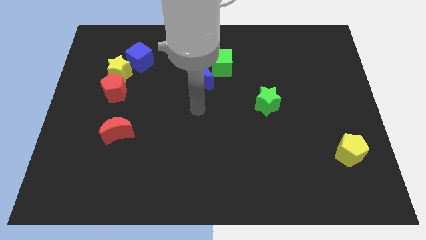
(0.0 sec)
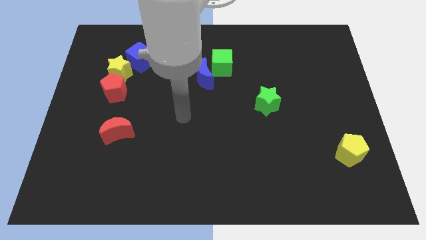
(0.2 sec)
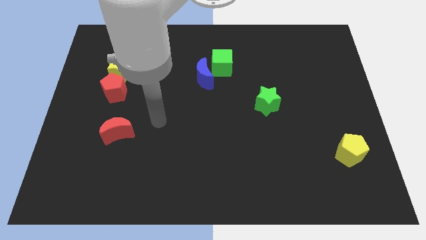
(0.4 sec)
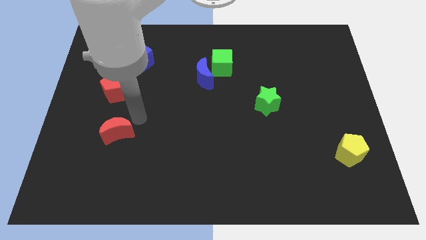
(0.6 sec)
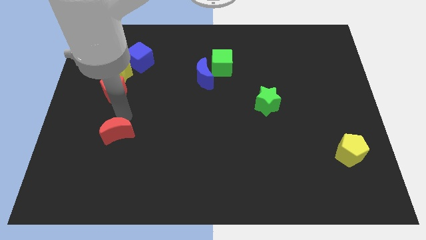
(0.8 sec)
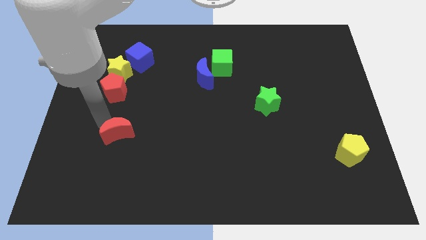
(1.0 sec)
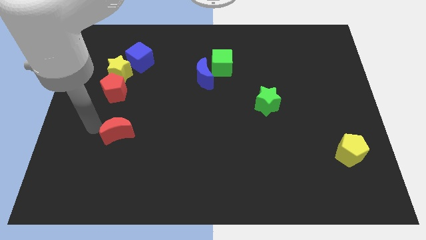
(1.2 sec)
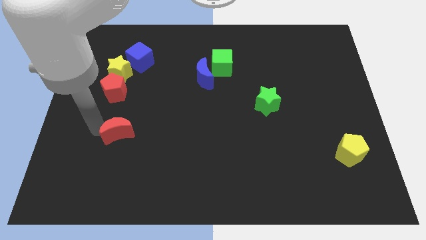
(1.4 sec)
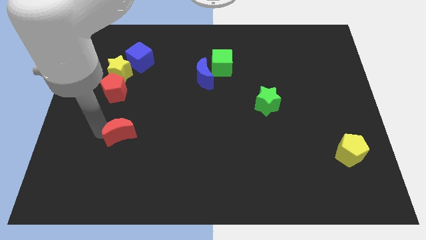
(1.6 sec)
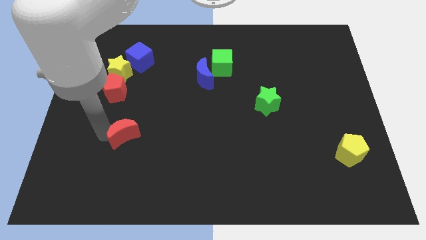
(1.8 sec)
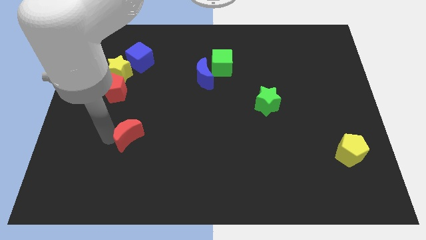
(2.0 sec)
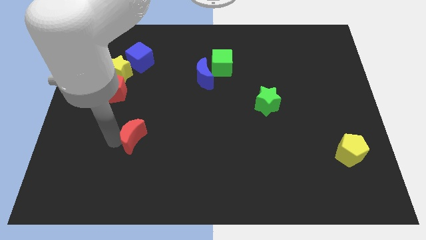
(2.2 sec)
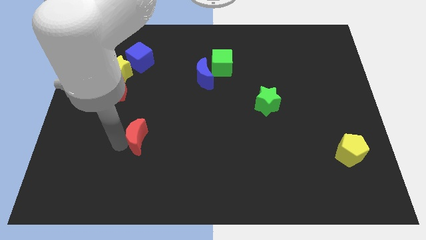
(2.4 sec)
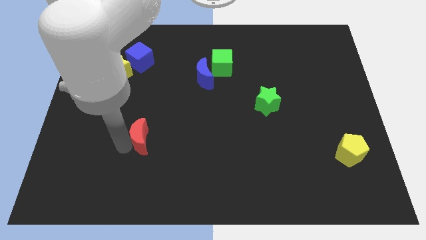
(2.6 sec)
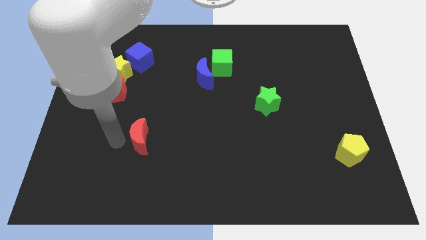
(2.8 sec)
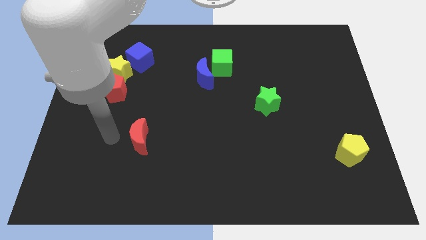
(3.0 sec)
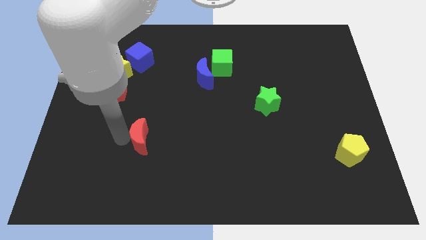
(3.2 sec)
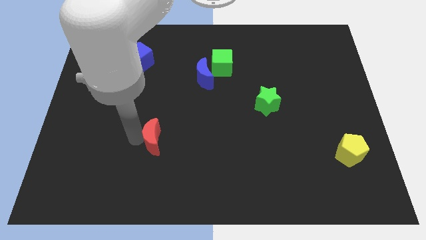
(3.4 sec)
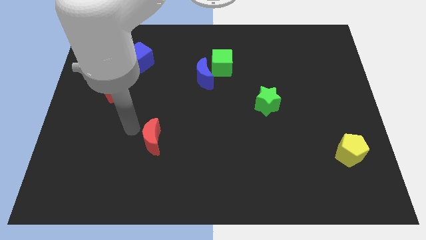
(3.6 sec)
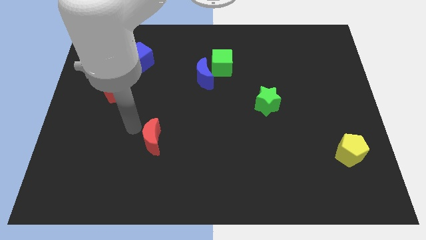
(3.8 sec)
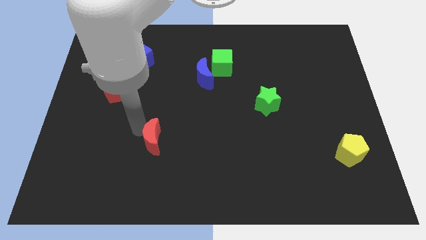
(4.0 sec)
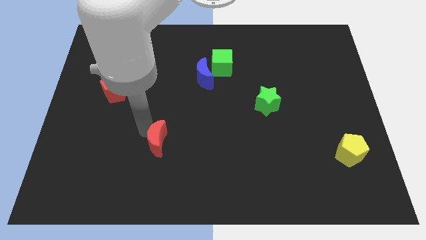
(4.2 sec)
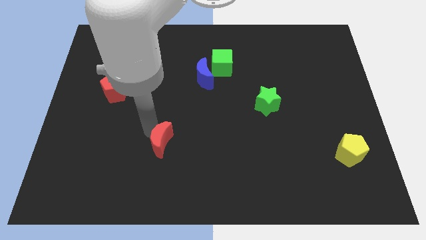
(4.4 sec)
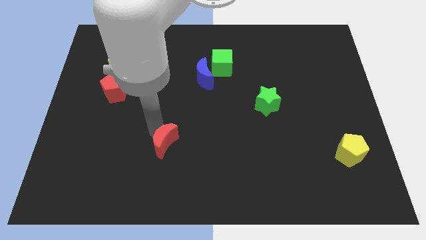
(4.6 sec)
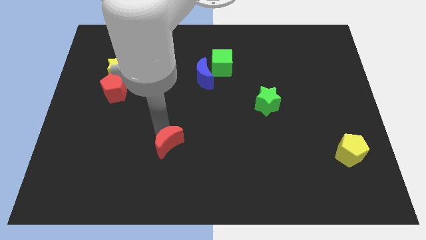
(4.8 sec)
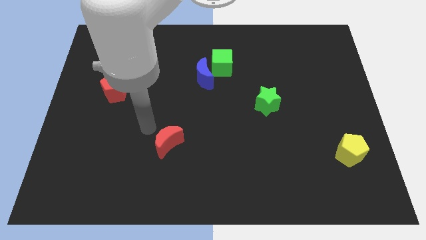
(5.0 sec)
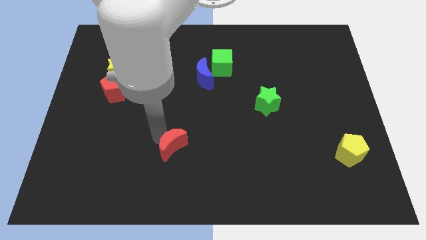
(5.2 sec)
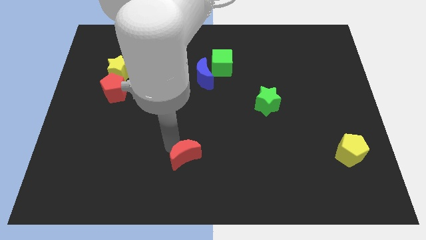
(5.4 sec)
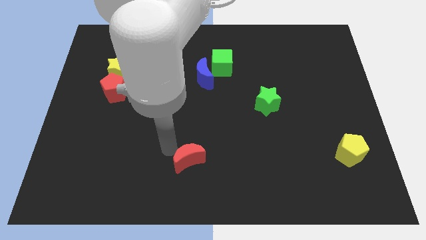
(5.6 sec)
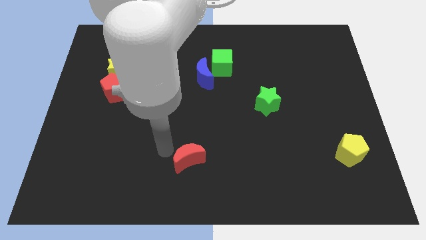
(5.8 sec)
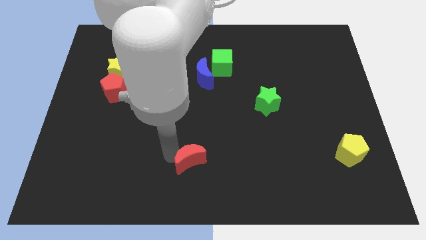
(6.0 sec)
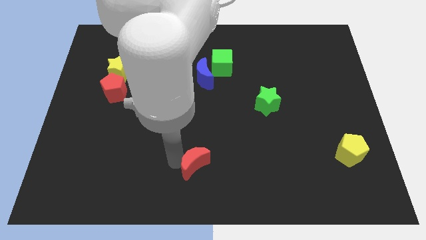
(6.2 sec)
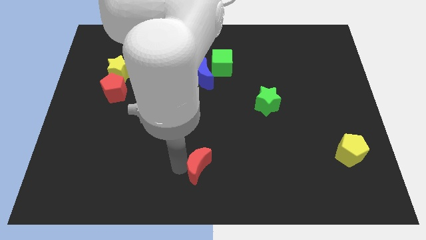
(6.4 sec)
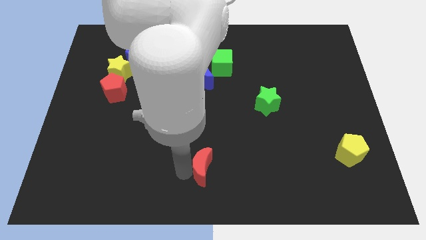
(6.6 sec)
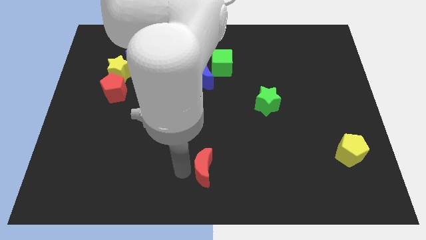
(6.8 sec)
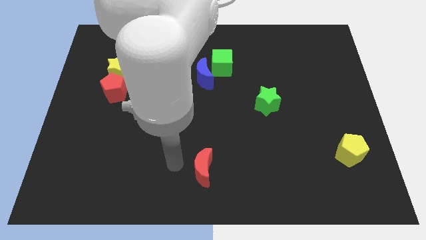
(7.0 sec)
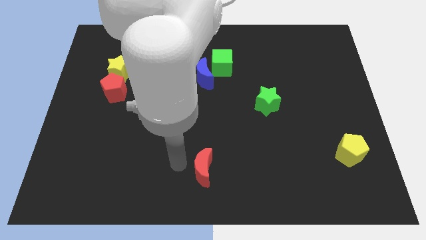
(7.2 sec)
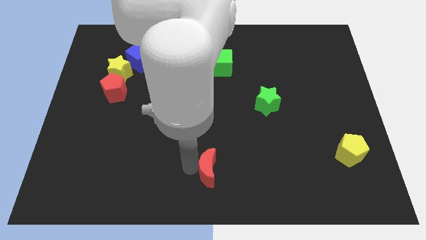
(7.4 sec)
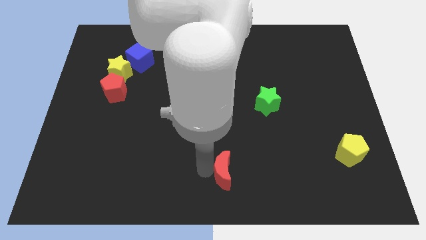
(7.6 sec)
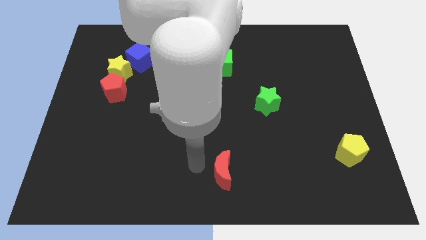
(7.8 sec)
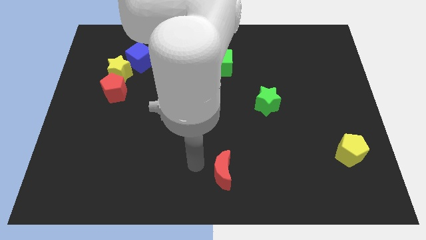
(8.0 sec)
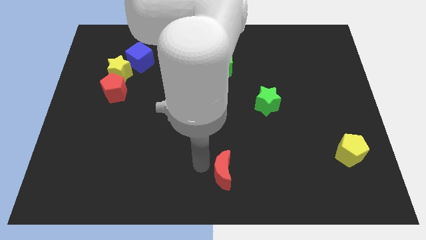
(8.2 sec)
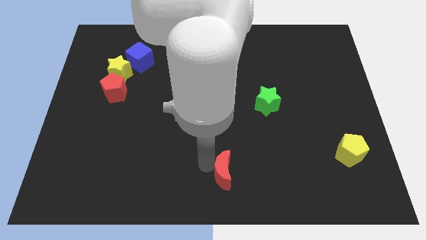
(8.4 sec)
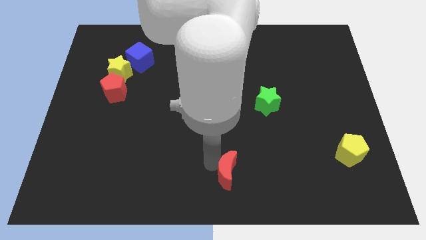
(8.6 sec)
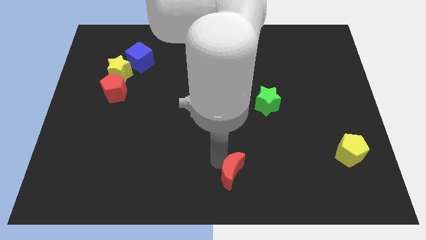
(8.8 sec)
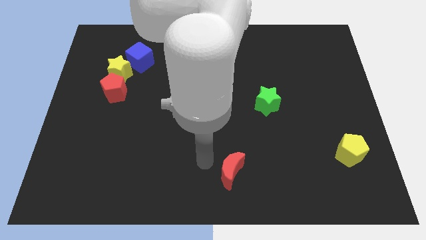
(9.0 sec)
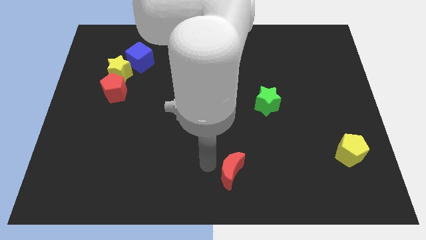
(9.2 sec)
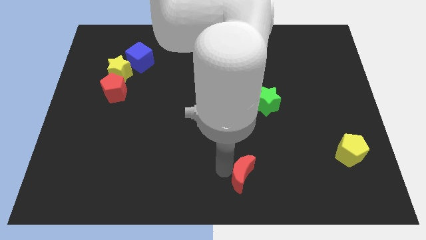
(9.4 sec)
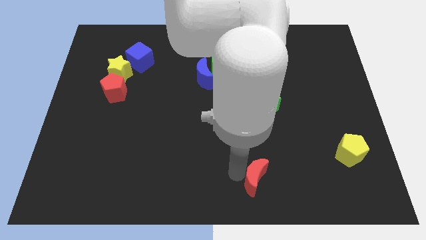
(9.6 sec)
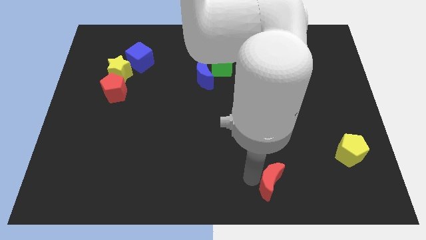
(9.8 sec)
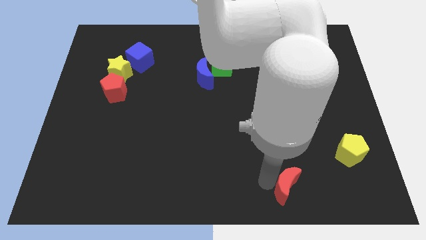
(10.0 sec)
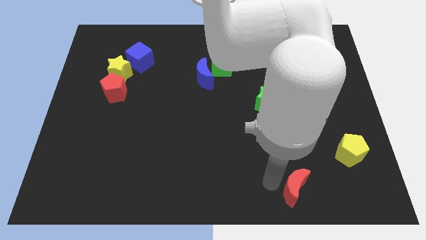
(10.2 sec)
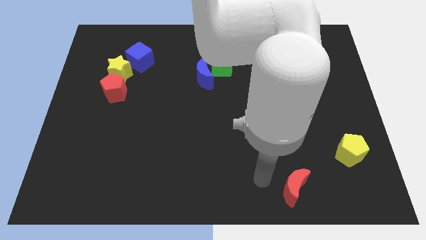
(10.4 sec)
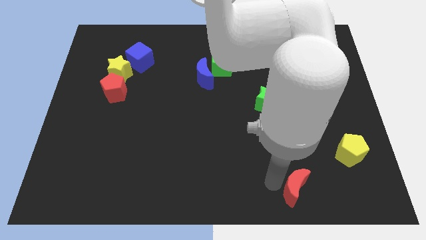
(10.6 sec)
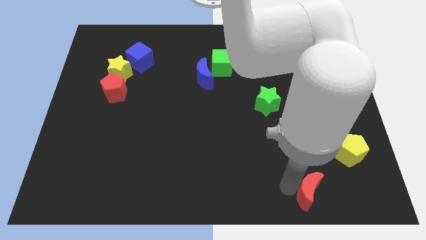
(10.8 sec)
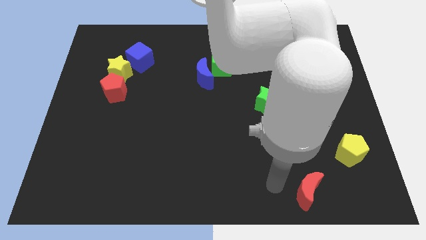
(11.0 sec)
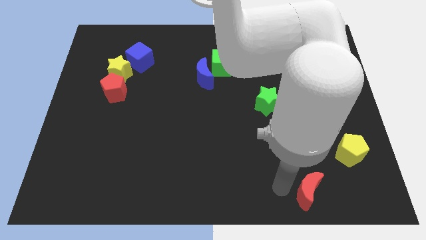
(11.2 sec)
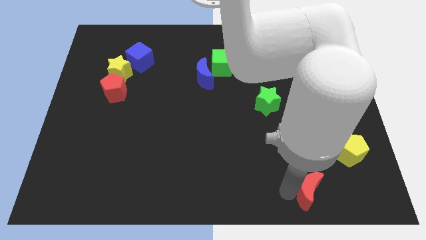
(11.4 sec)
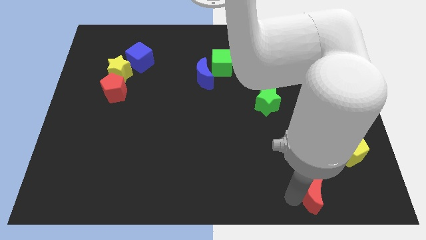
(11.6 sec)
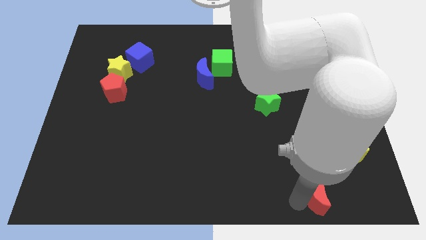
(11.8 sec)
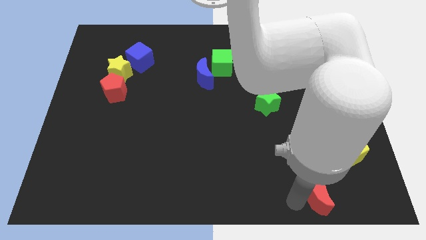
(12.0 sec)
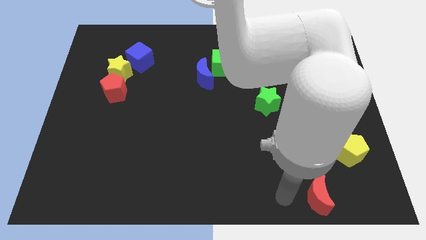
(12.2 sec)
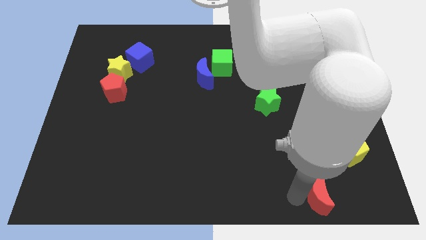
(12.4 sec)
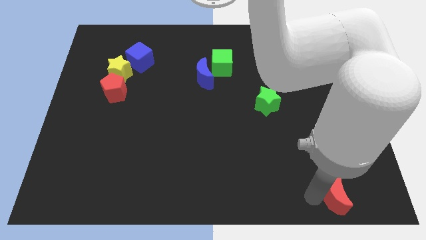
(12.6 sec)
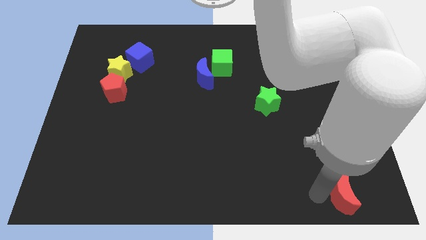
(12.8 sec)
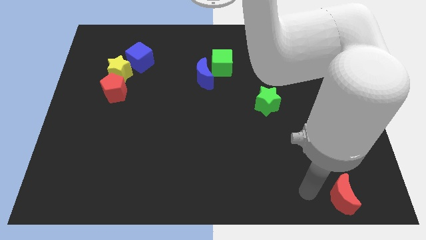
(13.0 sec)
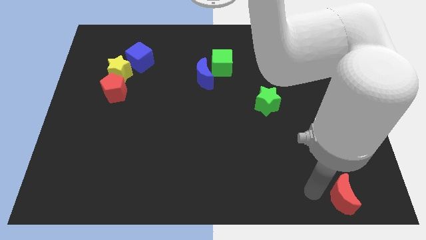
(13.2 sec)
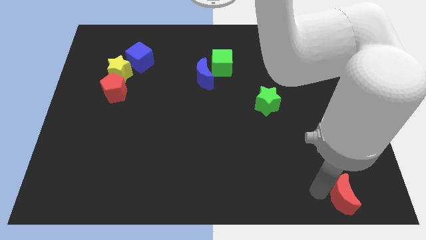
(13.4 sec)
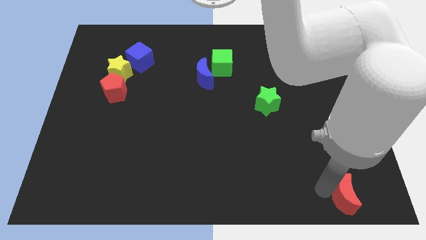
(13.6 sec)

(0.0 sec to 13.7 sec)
move the red moon to the bottom right corner

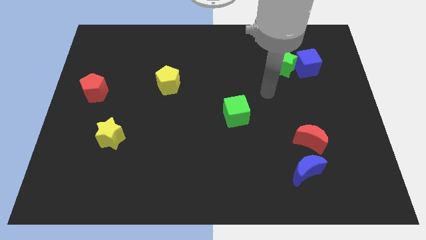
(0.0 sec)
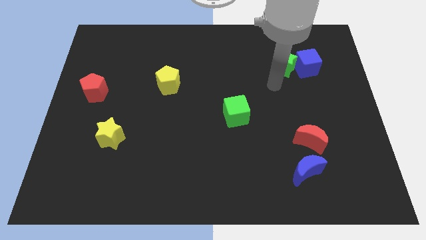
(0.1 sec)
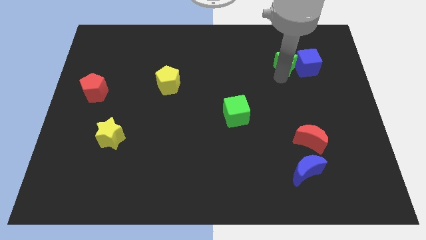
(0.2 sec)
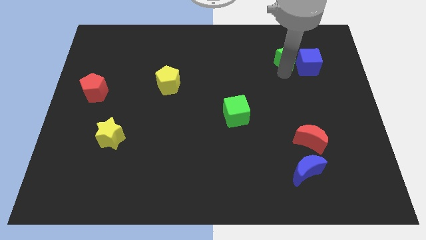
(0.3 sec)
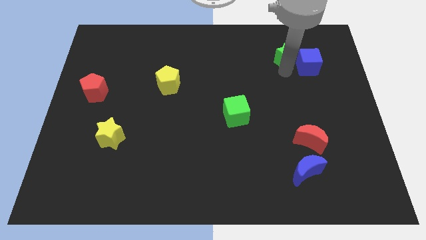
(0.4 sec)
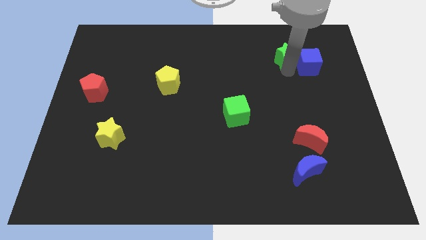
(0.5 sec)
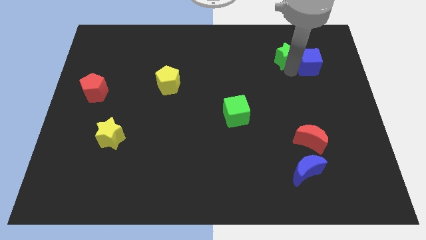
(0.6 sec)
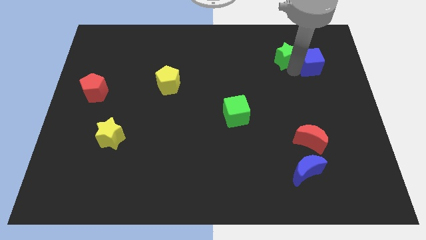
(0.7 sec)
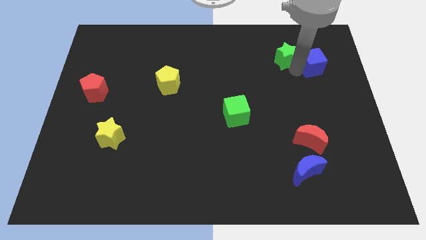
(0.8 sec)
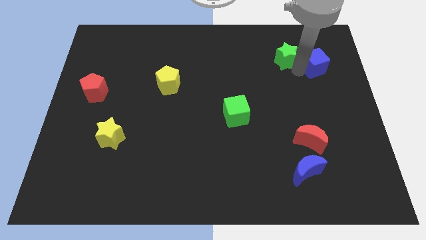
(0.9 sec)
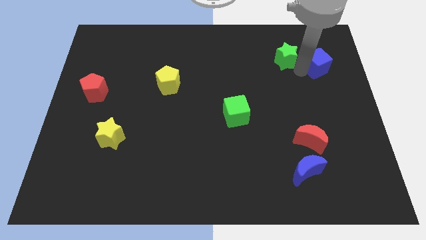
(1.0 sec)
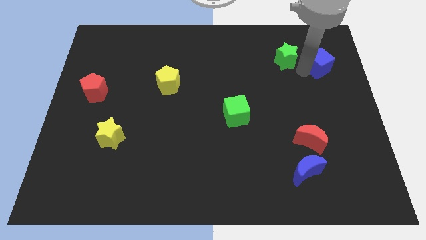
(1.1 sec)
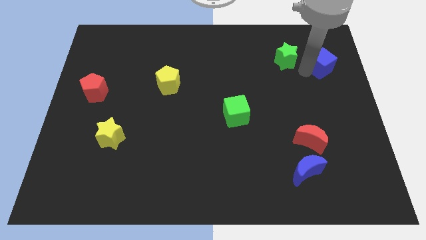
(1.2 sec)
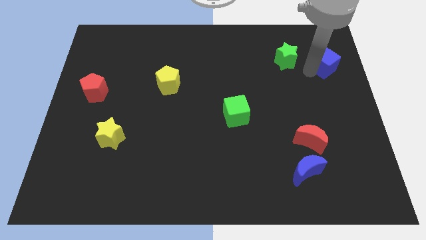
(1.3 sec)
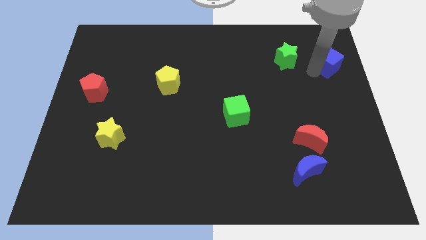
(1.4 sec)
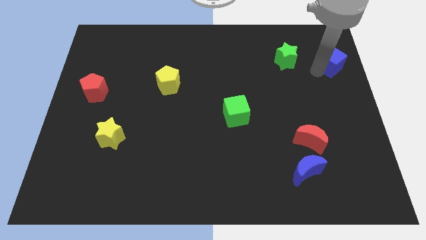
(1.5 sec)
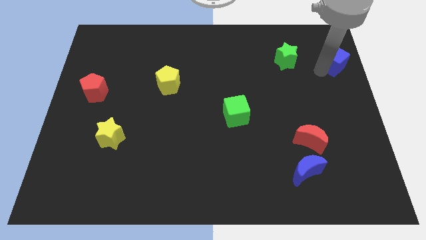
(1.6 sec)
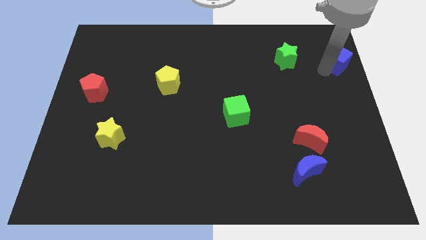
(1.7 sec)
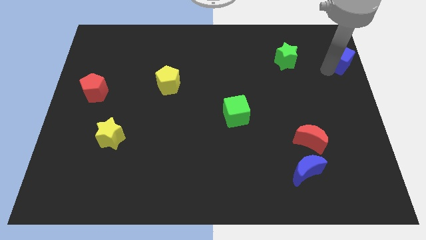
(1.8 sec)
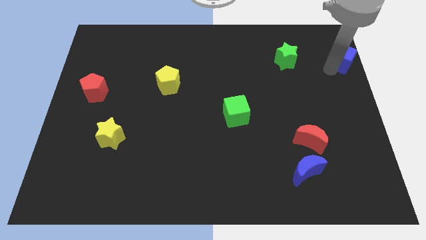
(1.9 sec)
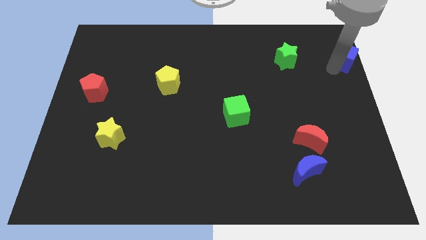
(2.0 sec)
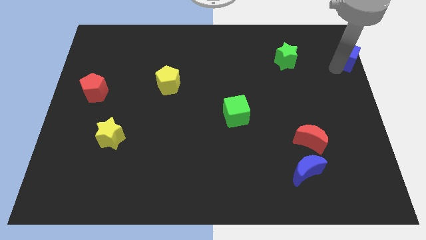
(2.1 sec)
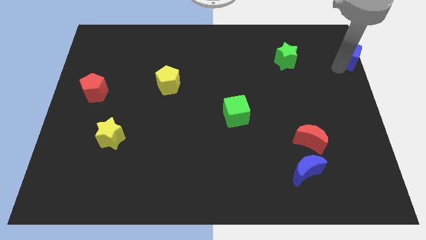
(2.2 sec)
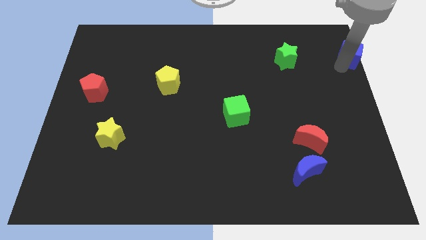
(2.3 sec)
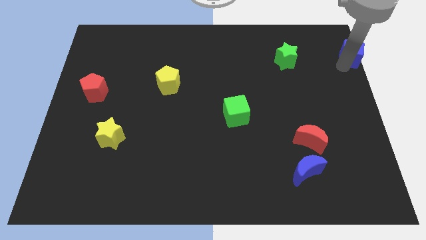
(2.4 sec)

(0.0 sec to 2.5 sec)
push the blue cube to the top right of the board
